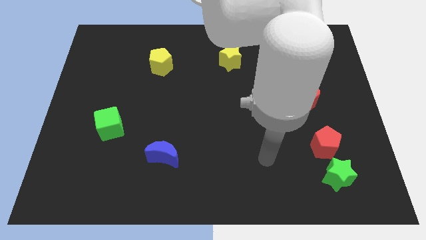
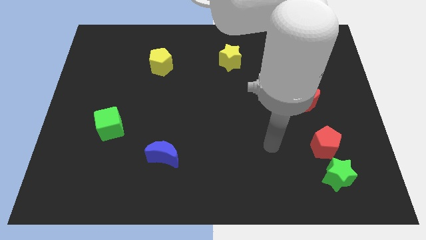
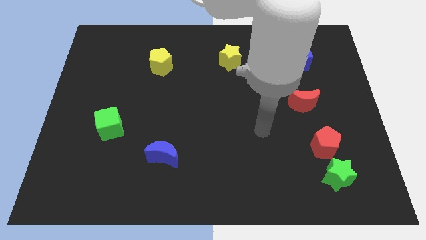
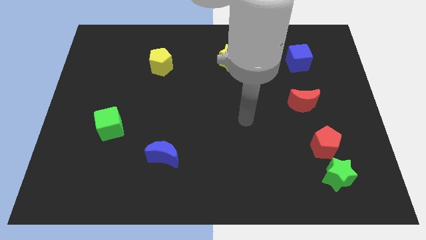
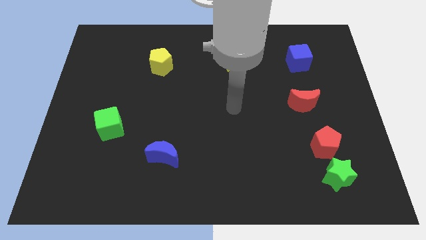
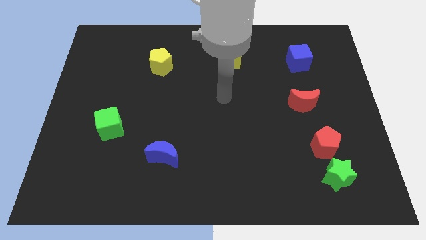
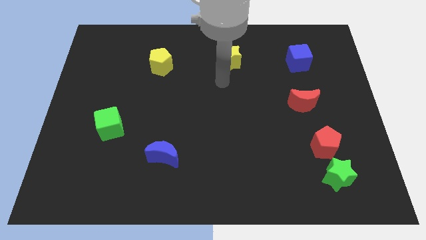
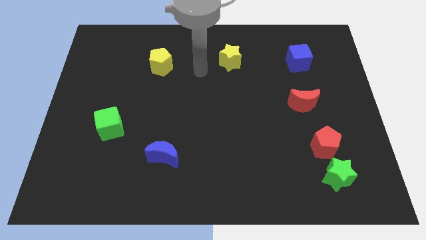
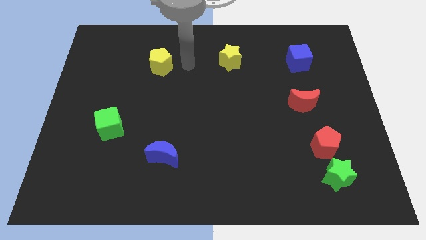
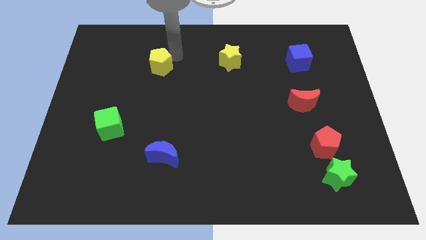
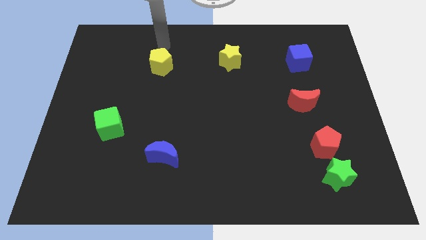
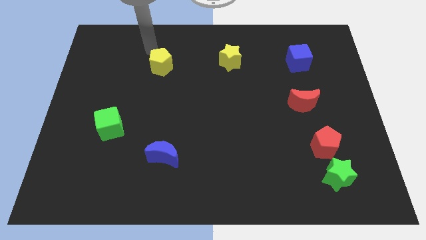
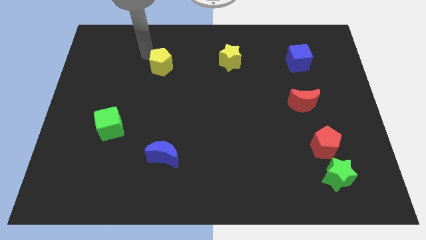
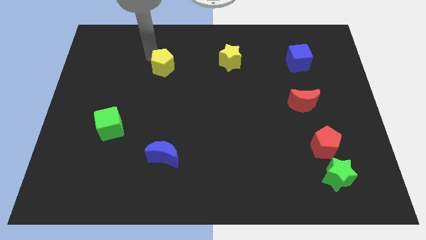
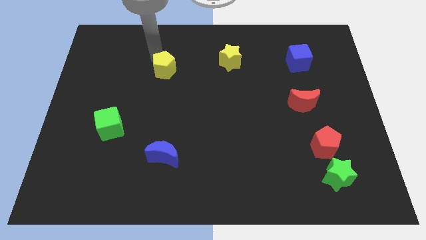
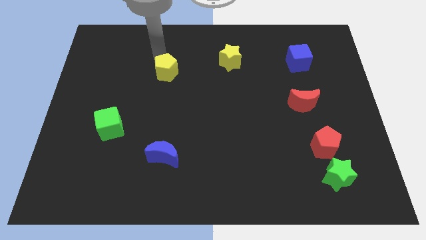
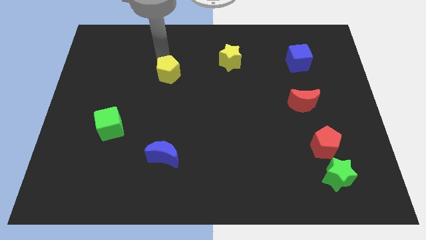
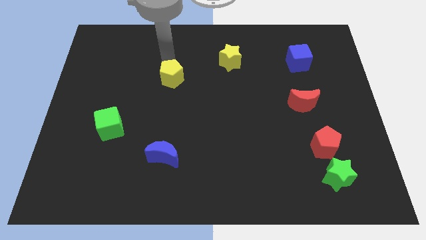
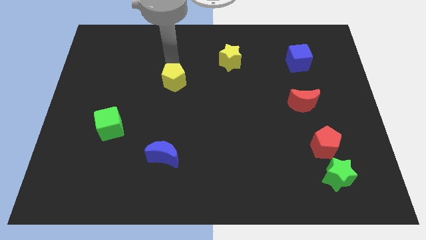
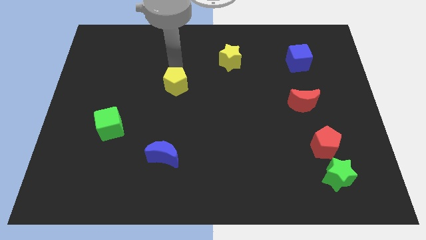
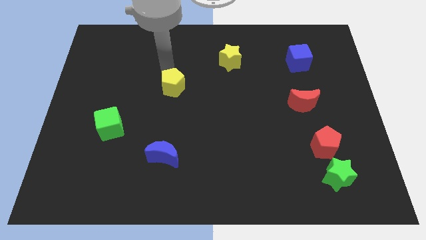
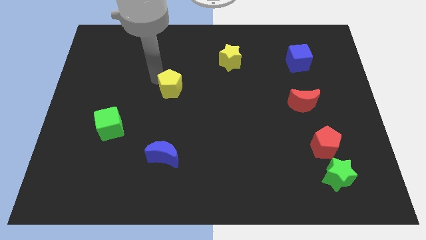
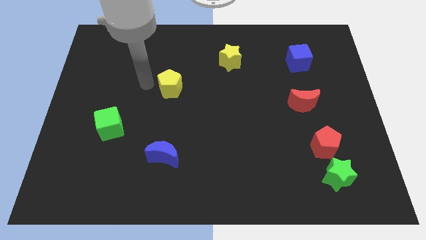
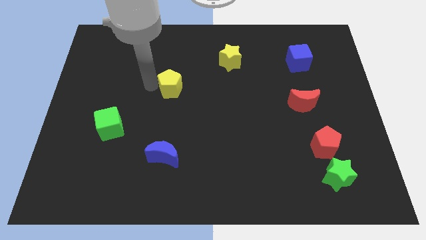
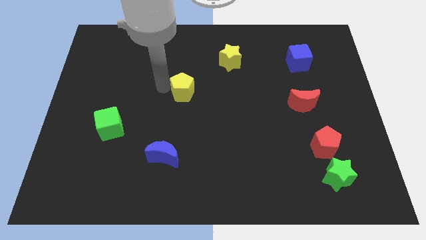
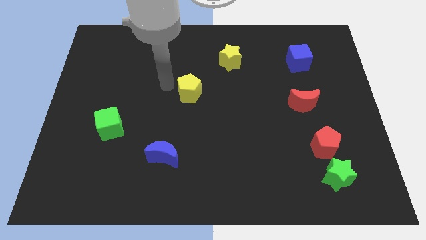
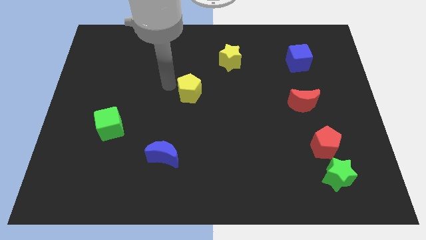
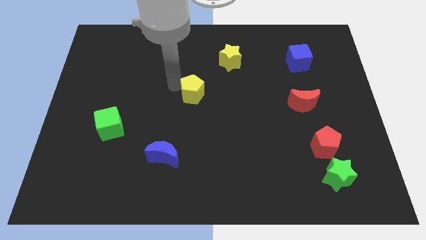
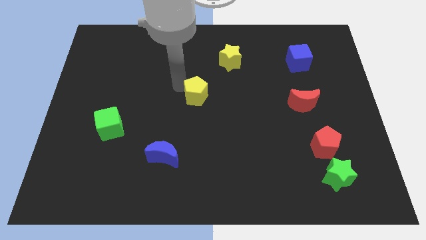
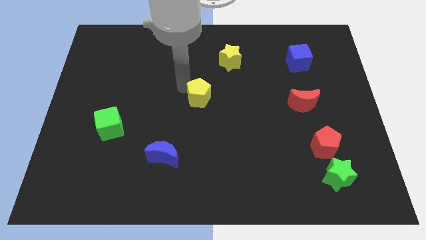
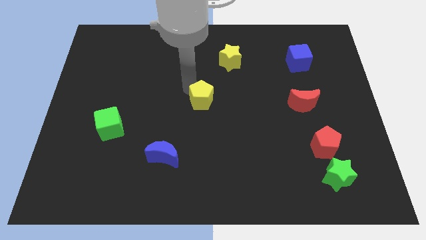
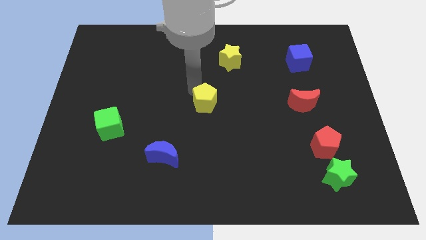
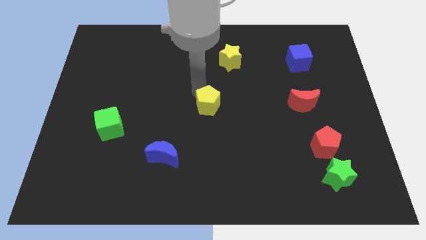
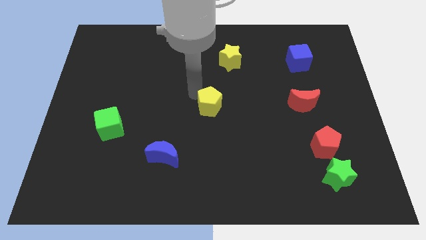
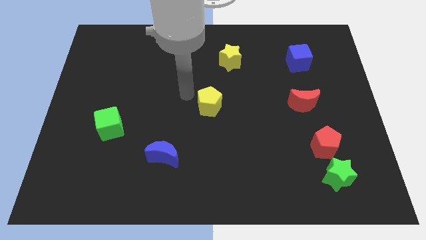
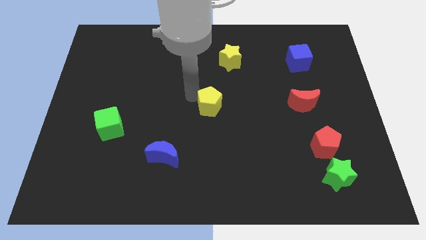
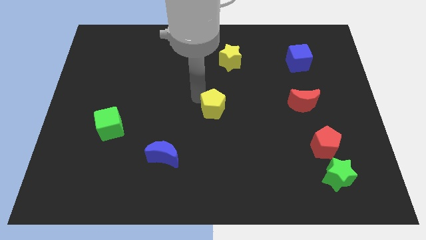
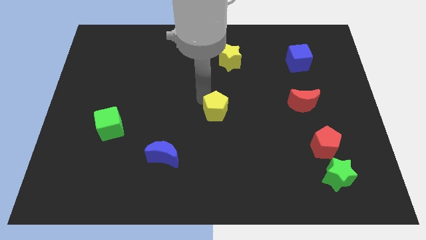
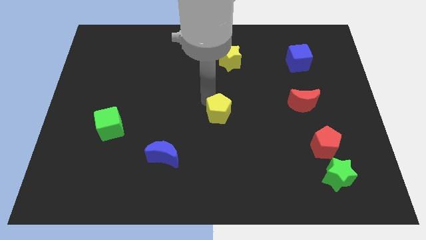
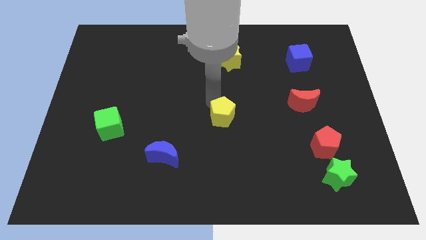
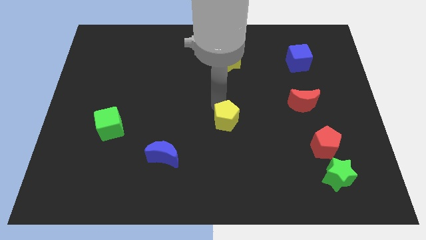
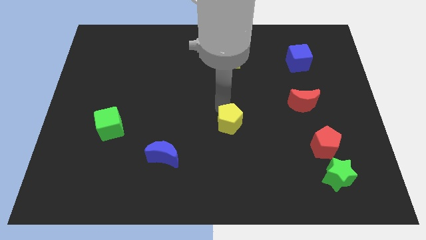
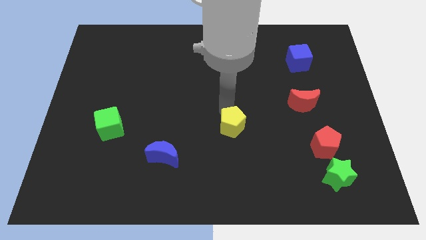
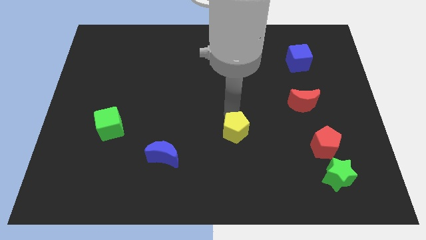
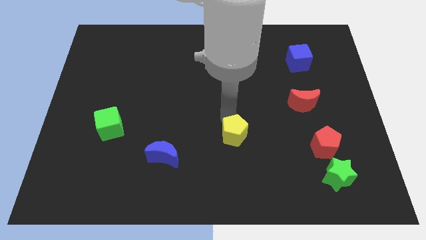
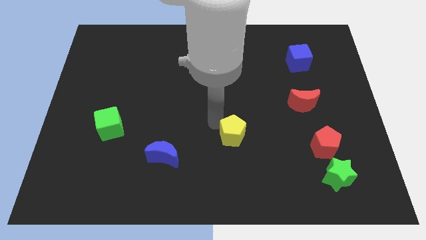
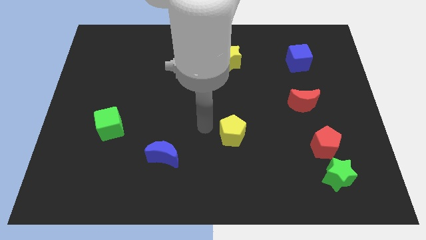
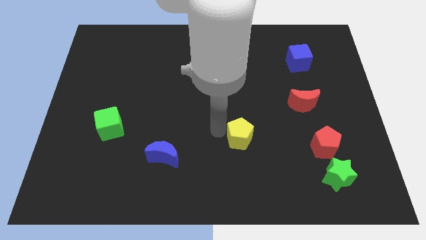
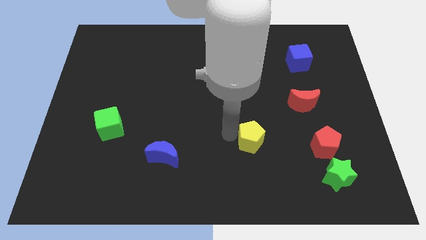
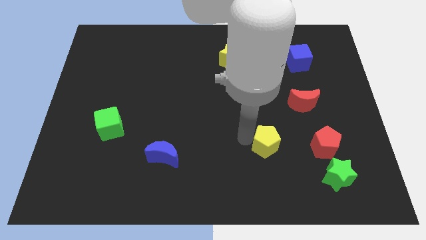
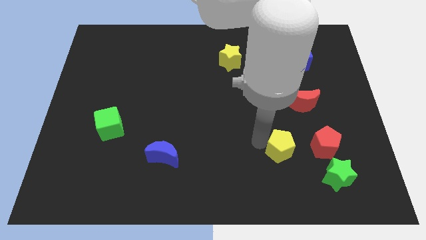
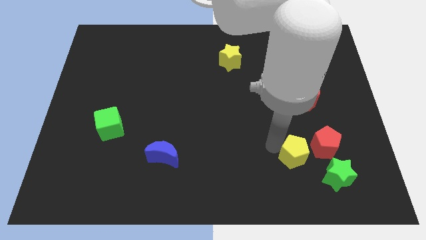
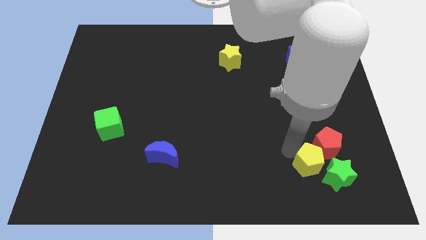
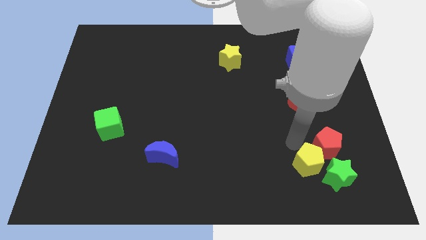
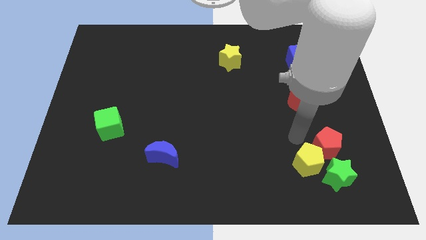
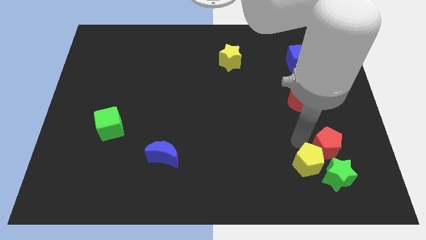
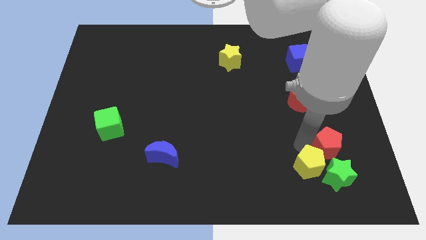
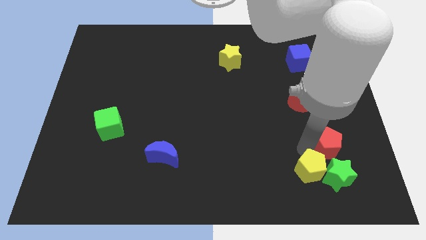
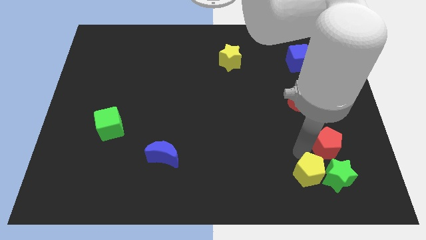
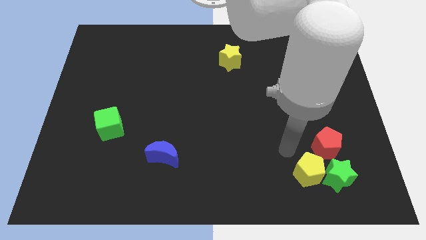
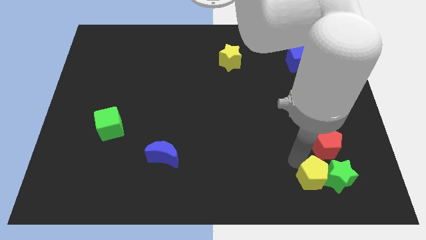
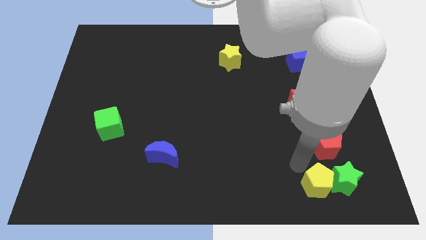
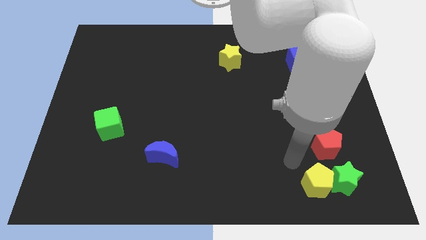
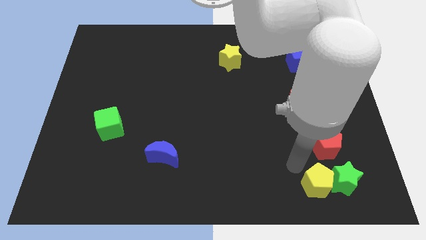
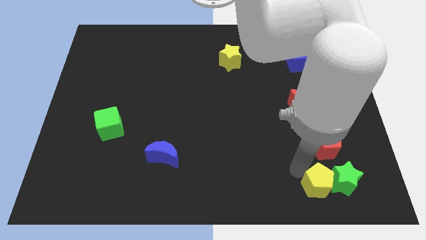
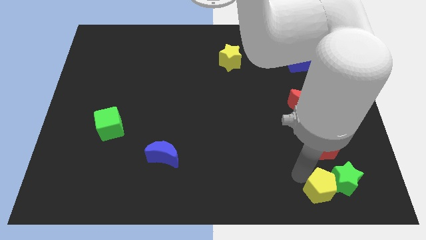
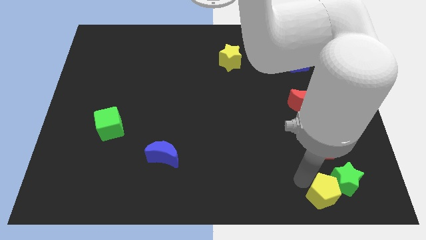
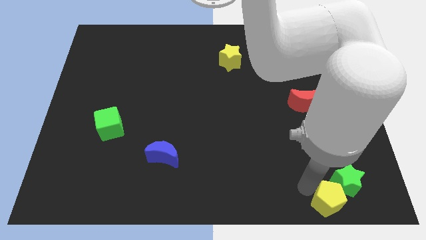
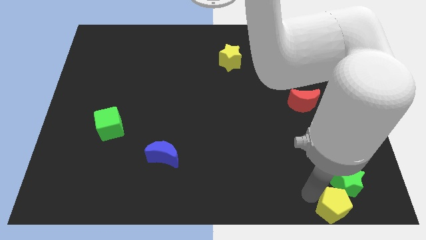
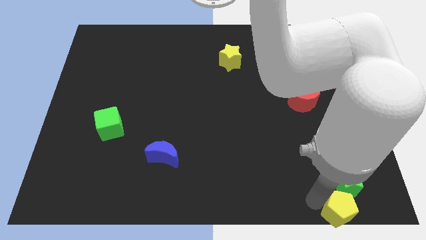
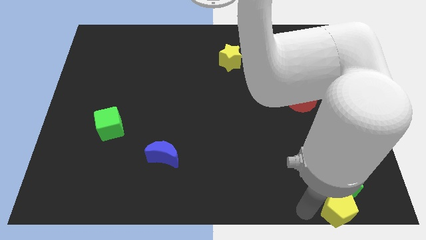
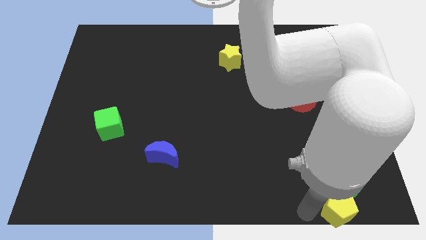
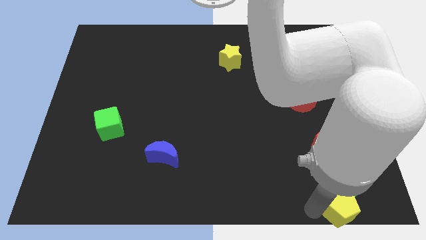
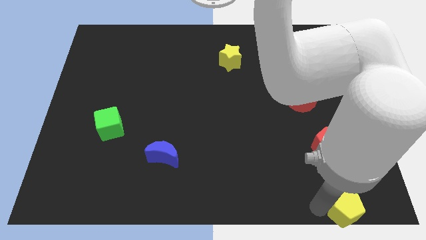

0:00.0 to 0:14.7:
push the yellow pentagon to the bottom right of the board
